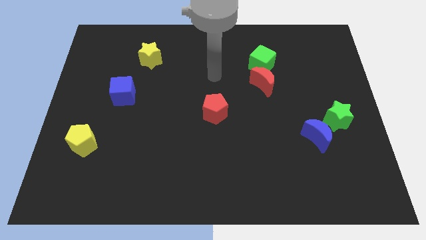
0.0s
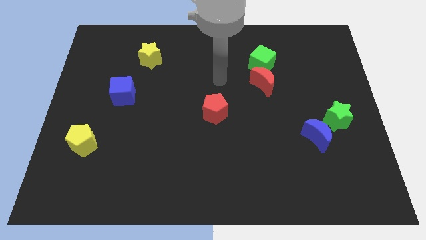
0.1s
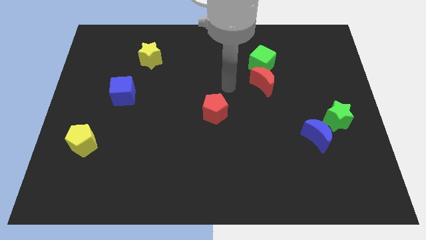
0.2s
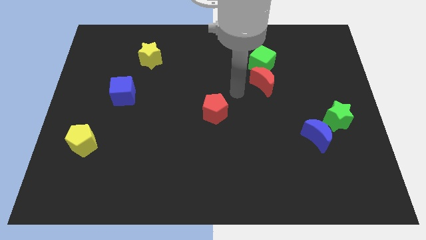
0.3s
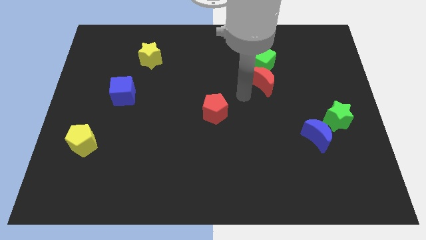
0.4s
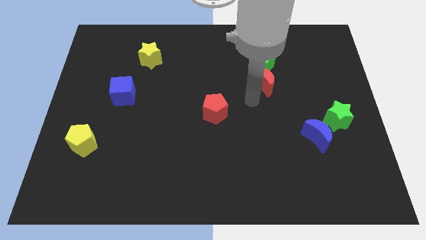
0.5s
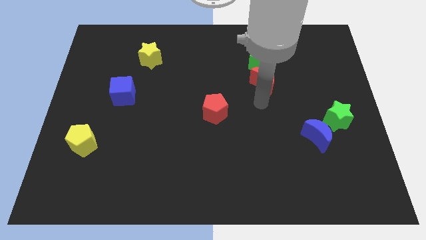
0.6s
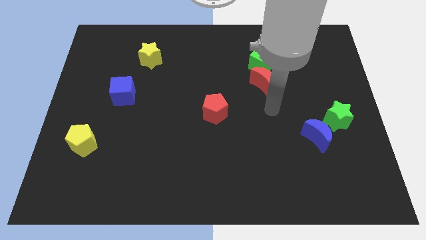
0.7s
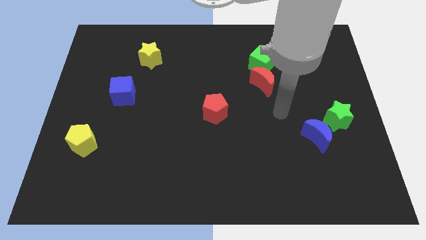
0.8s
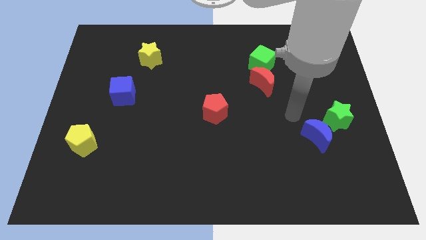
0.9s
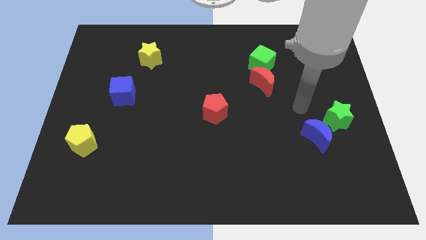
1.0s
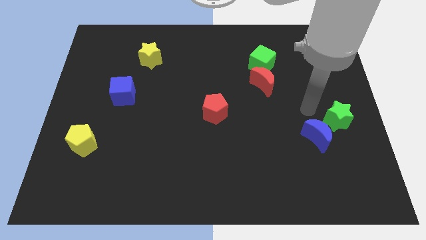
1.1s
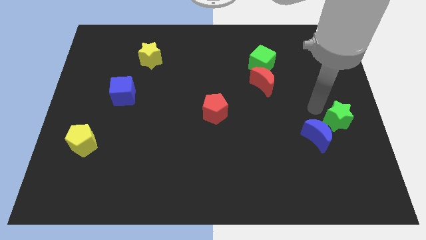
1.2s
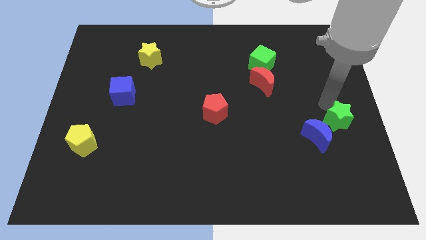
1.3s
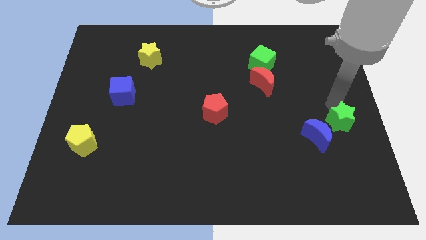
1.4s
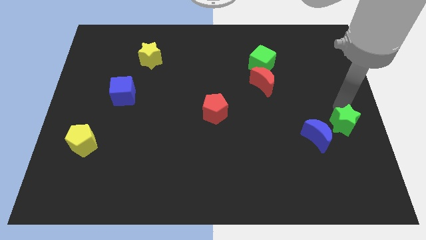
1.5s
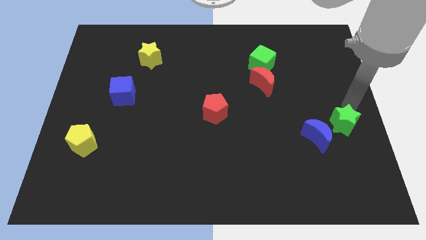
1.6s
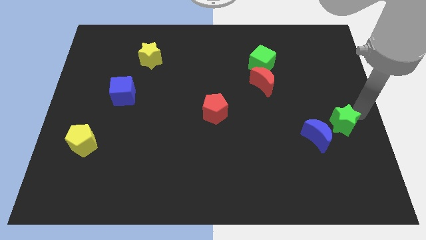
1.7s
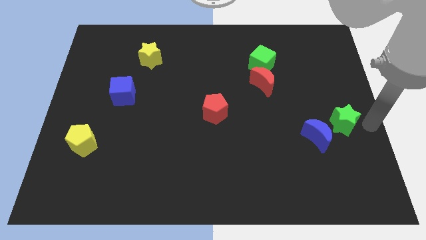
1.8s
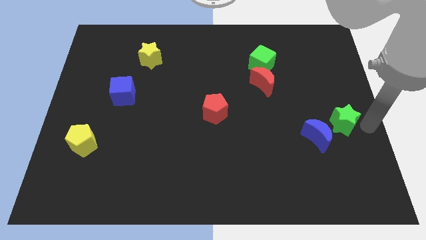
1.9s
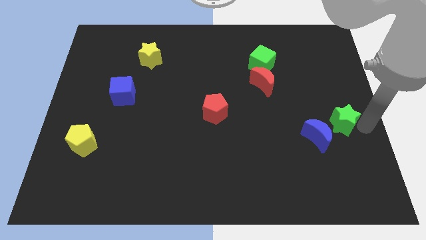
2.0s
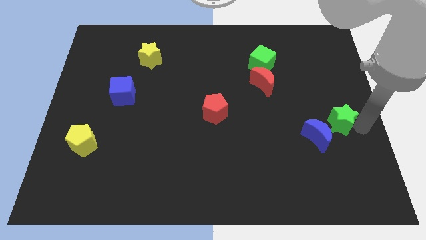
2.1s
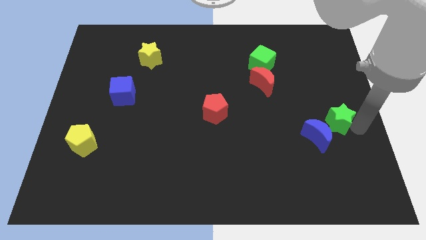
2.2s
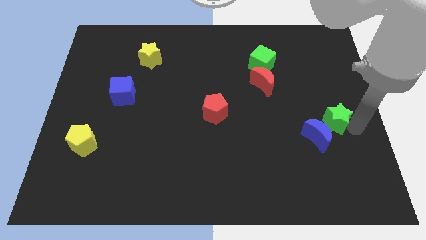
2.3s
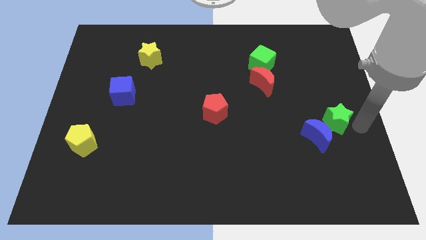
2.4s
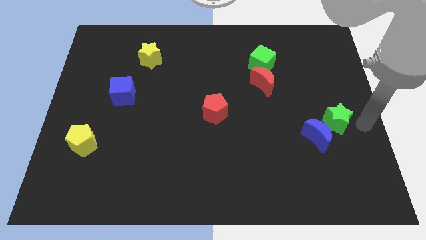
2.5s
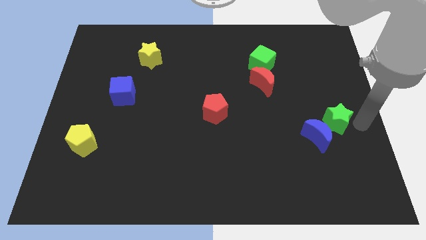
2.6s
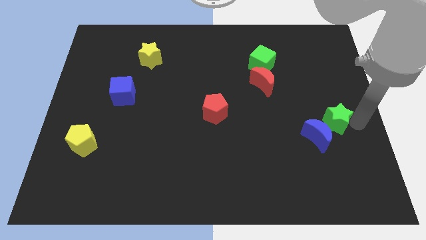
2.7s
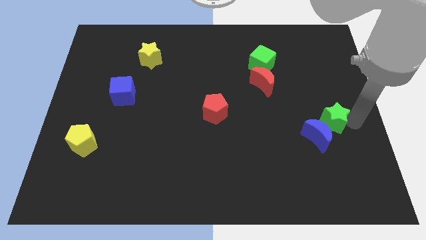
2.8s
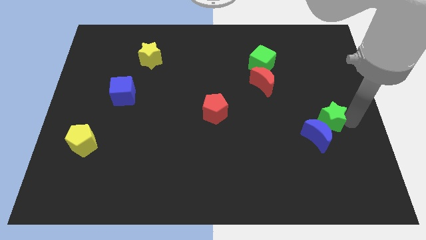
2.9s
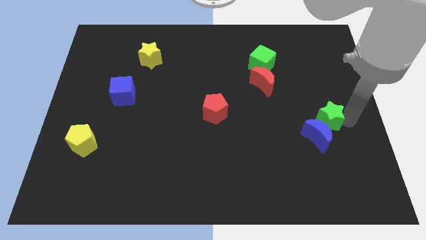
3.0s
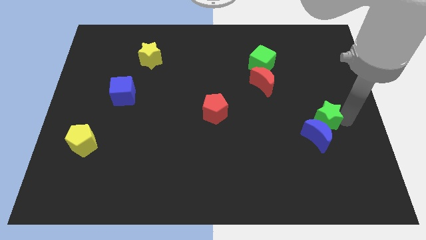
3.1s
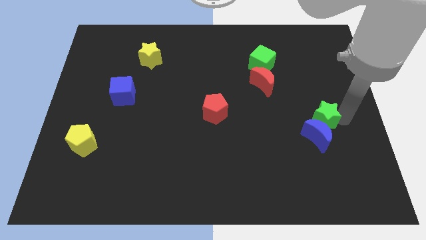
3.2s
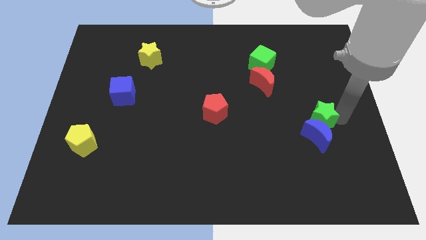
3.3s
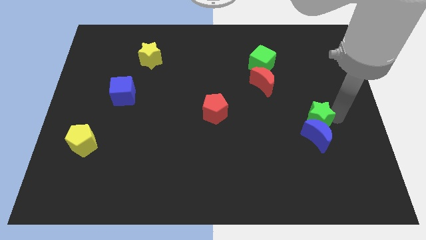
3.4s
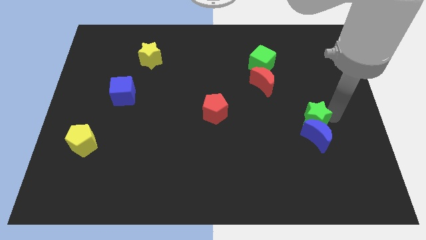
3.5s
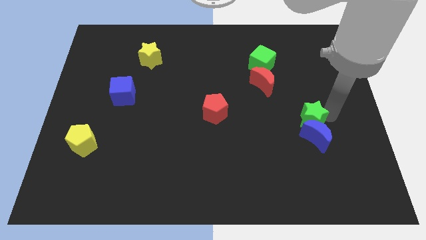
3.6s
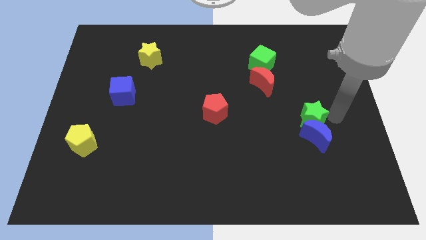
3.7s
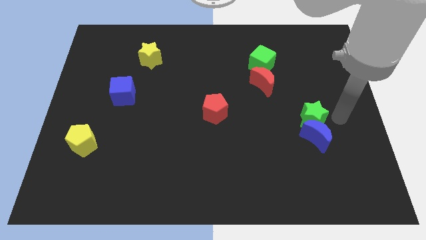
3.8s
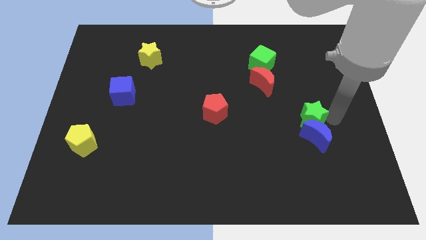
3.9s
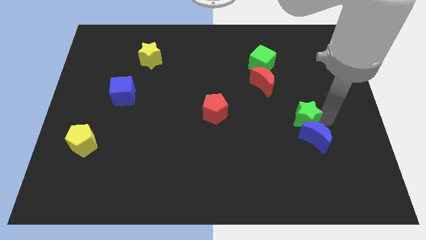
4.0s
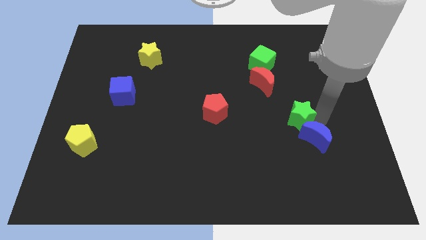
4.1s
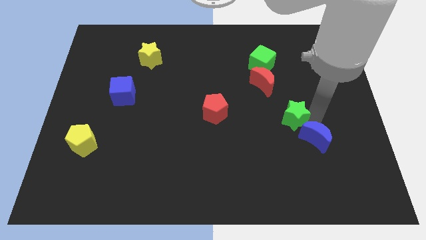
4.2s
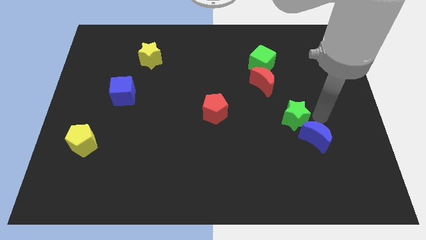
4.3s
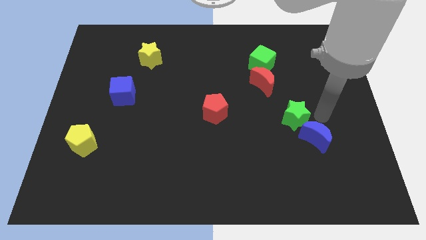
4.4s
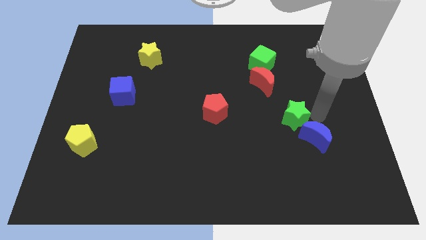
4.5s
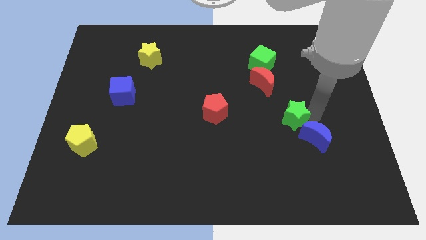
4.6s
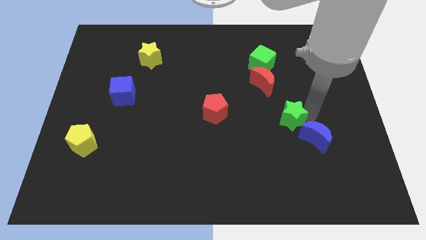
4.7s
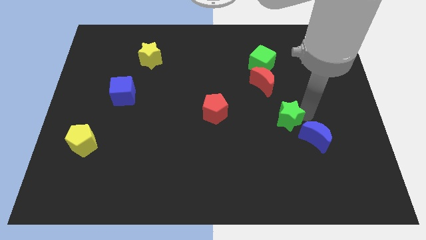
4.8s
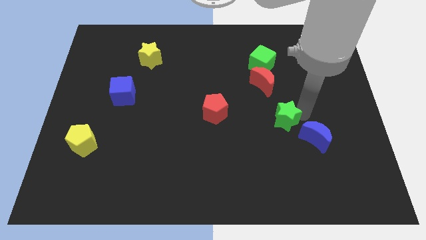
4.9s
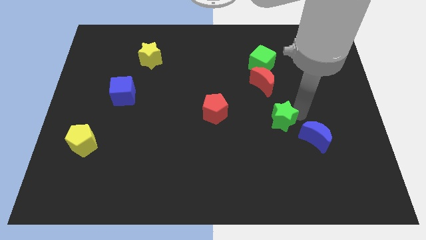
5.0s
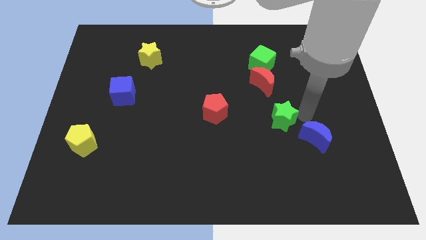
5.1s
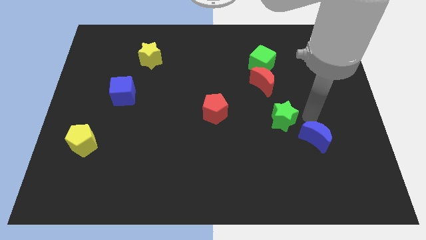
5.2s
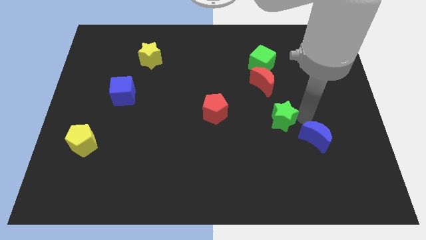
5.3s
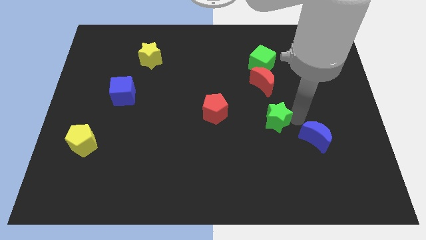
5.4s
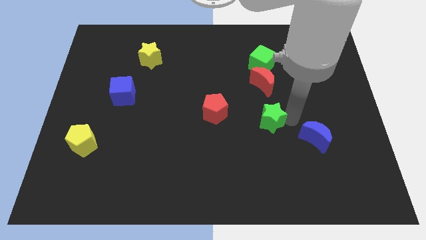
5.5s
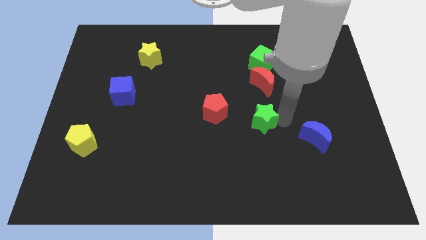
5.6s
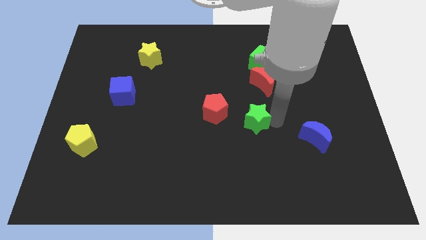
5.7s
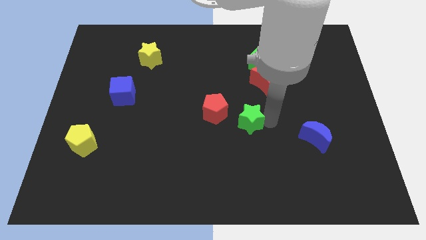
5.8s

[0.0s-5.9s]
push the green star to the left

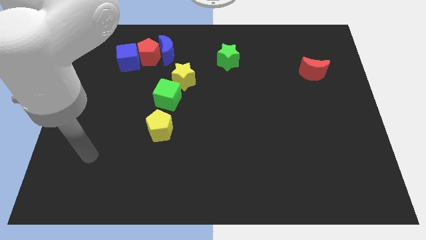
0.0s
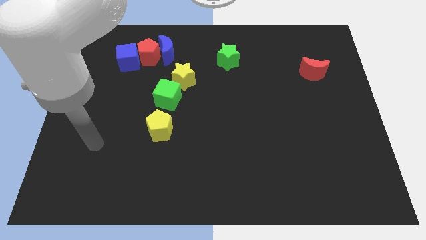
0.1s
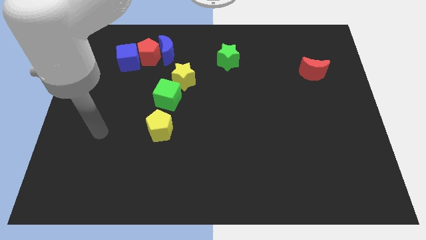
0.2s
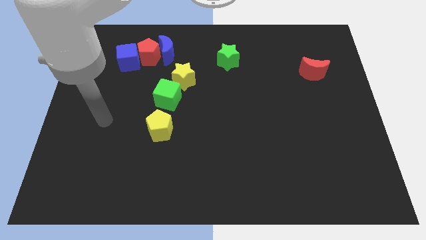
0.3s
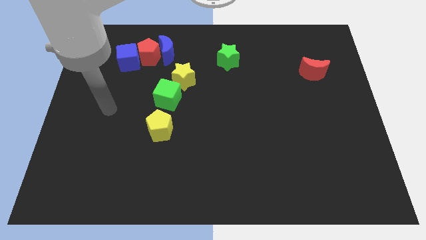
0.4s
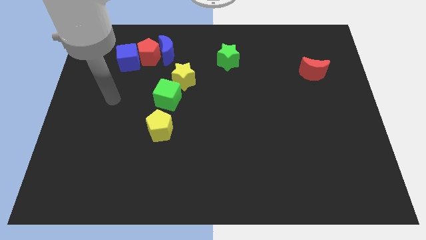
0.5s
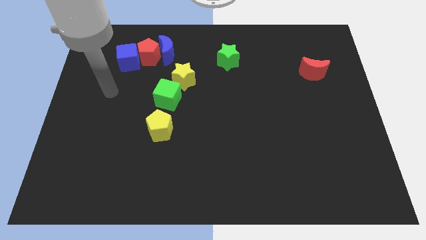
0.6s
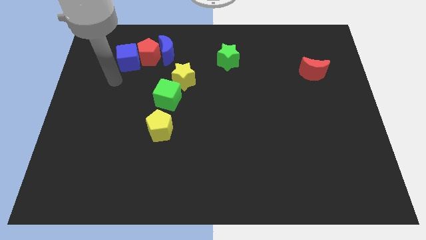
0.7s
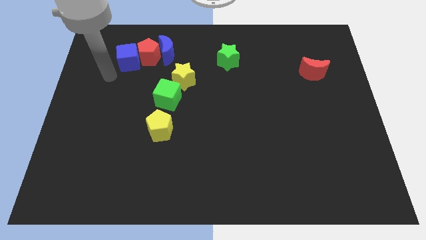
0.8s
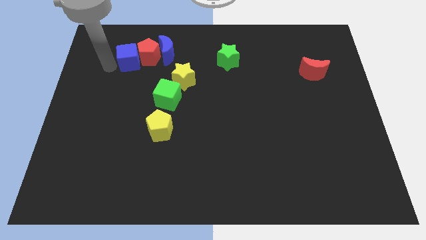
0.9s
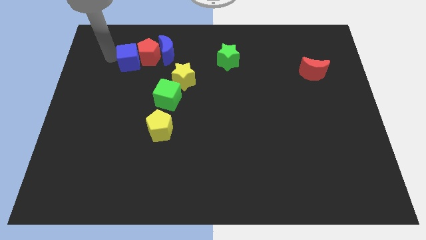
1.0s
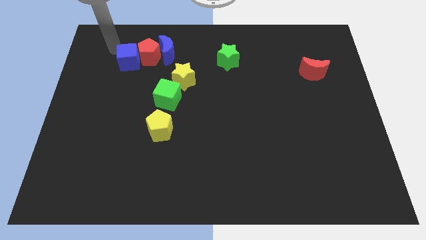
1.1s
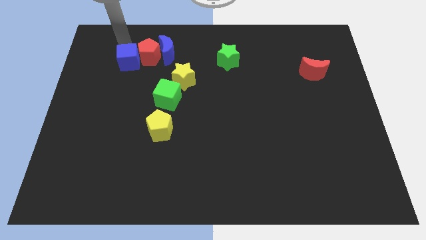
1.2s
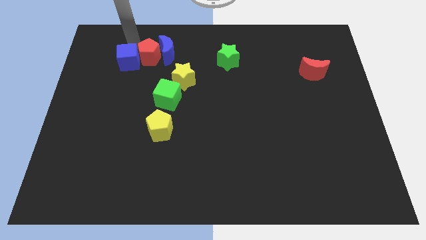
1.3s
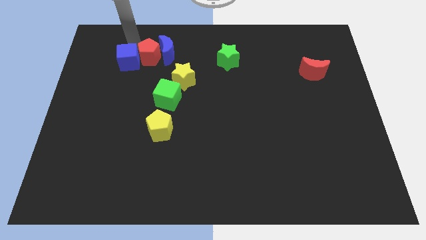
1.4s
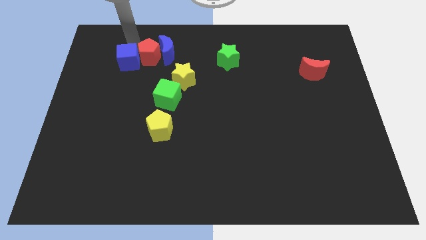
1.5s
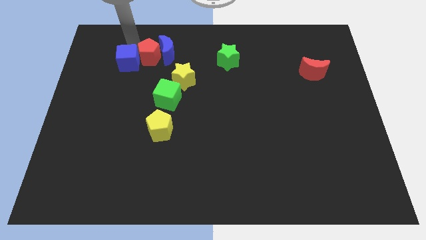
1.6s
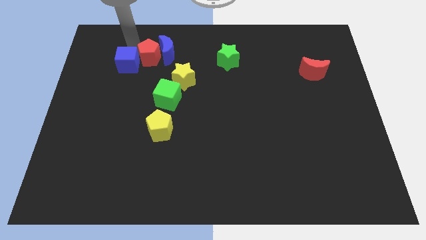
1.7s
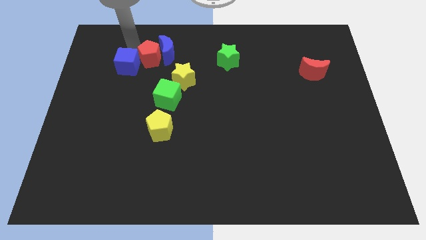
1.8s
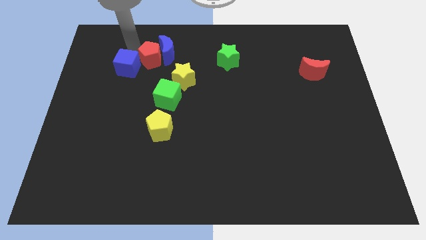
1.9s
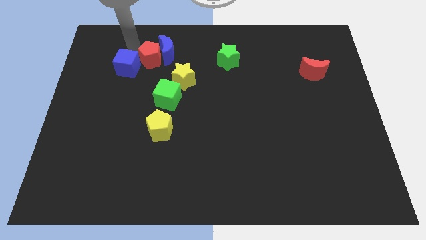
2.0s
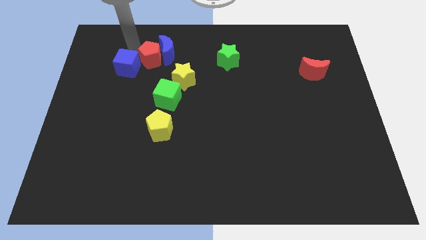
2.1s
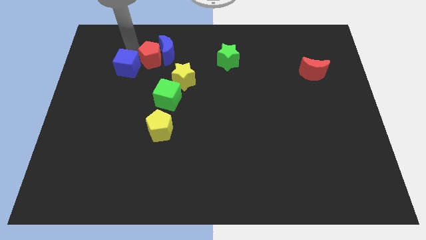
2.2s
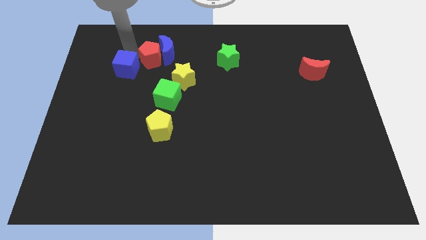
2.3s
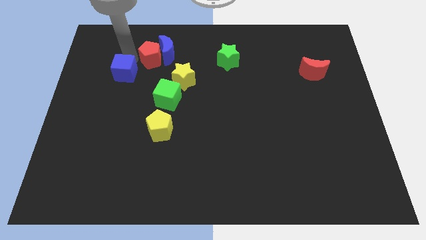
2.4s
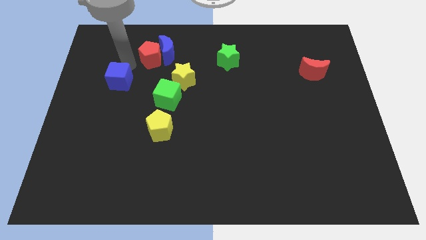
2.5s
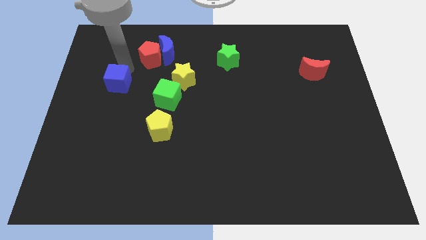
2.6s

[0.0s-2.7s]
push the blue cube a little downwards
